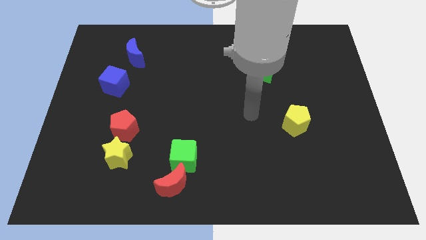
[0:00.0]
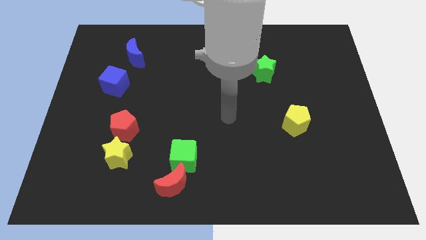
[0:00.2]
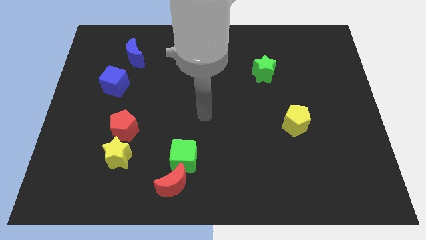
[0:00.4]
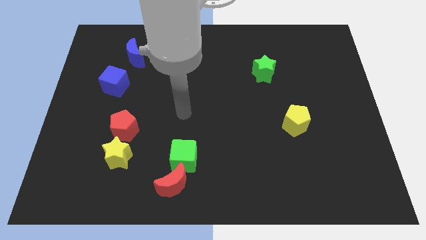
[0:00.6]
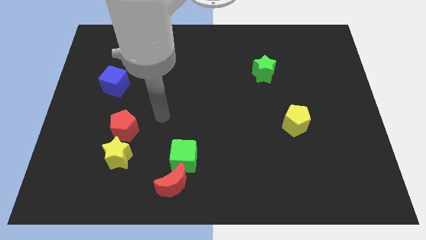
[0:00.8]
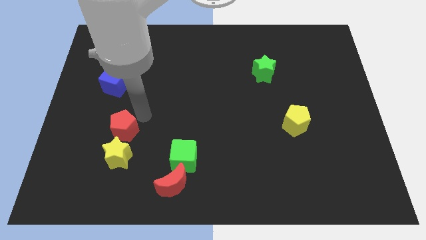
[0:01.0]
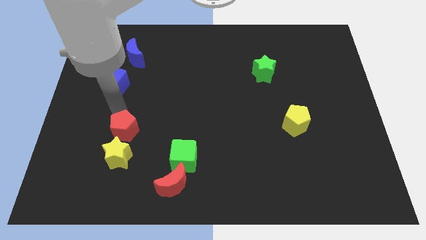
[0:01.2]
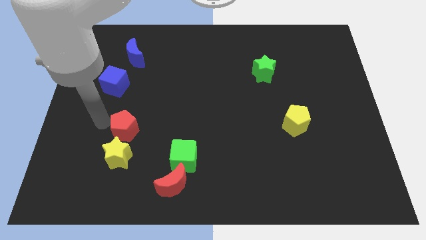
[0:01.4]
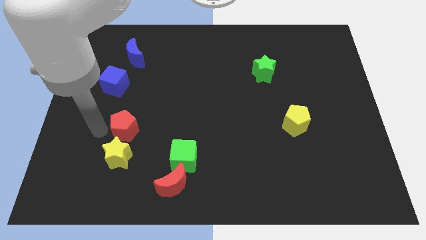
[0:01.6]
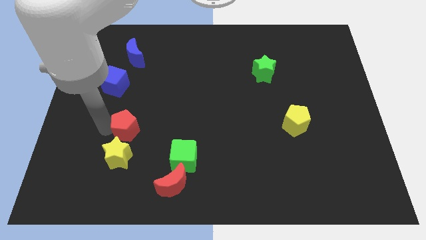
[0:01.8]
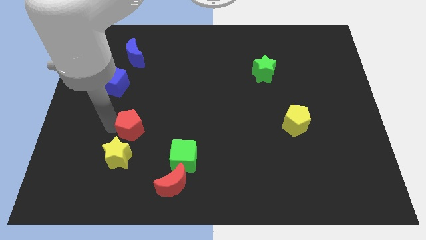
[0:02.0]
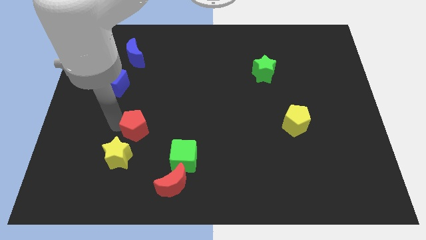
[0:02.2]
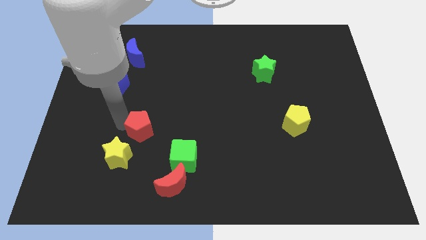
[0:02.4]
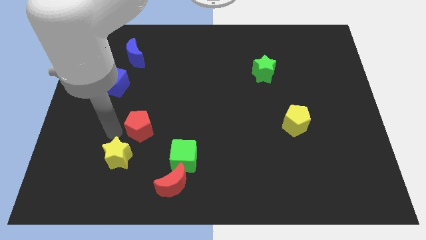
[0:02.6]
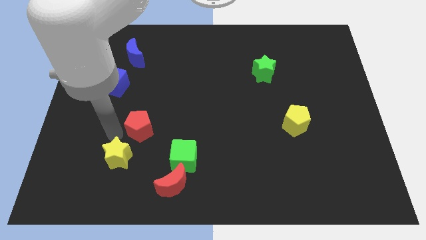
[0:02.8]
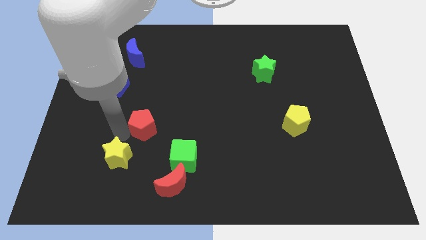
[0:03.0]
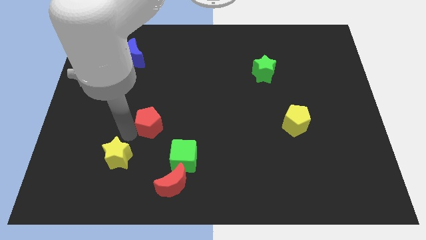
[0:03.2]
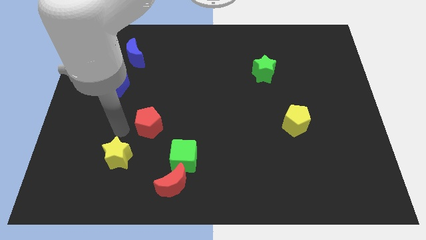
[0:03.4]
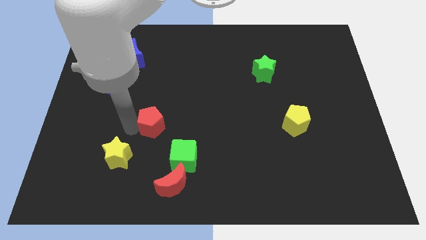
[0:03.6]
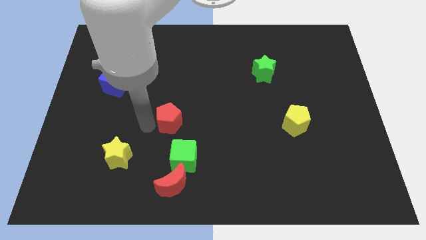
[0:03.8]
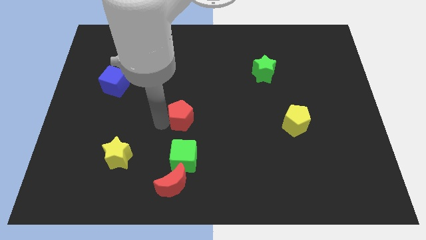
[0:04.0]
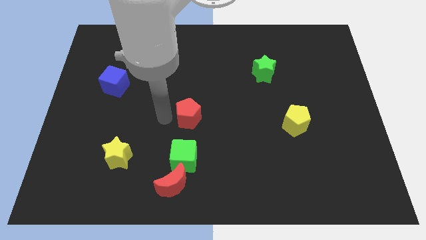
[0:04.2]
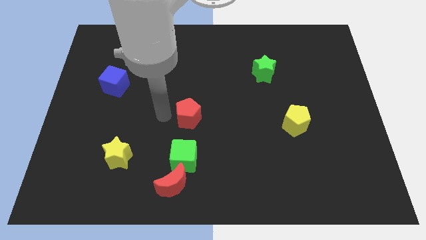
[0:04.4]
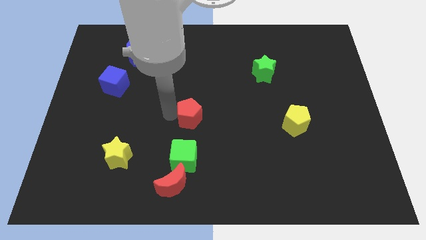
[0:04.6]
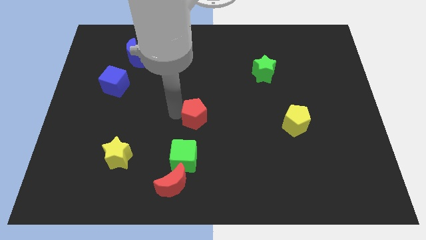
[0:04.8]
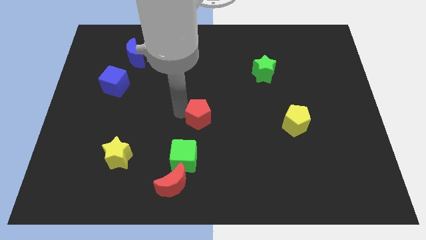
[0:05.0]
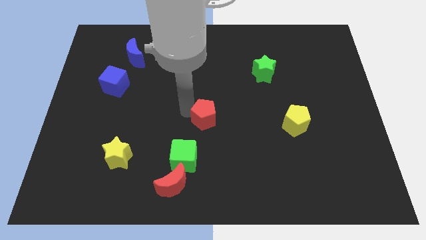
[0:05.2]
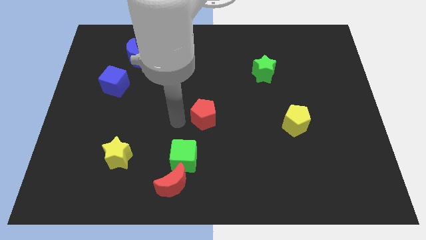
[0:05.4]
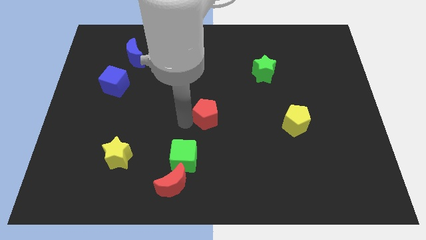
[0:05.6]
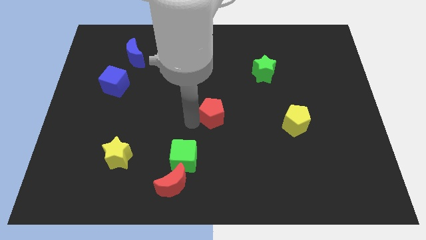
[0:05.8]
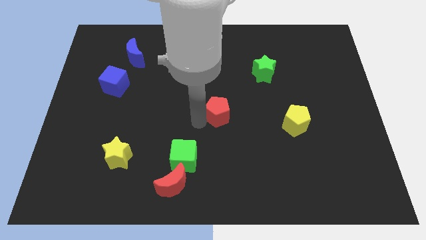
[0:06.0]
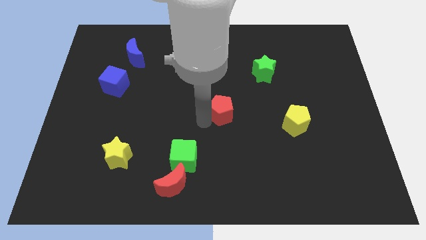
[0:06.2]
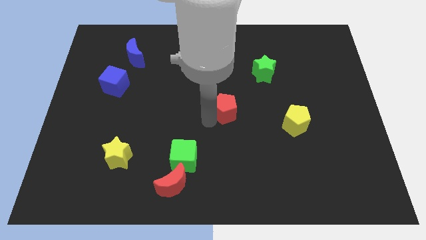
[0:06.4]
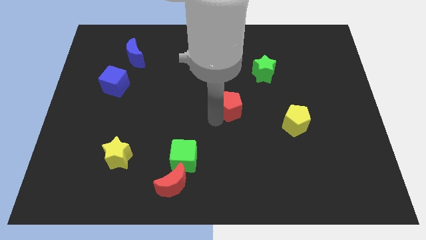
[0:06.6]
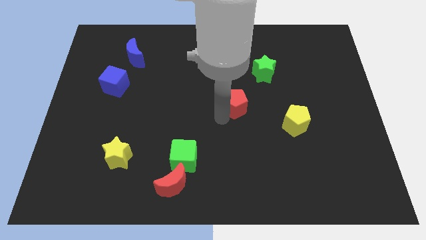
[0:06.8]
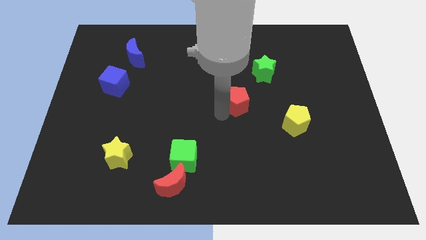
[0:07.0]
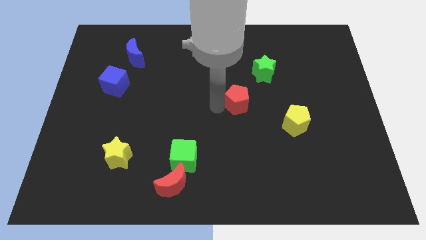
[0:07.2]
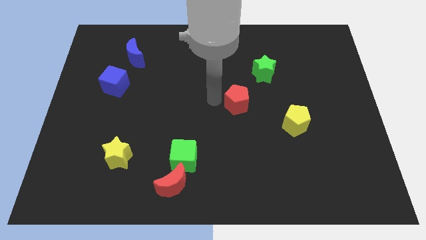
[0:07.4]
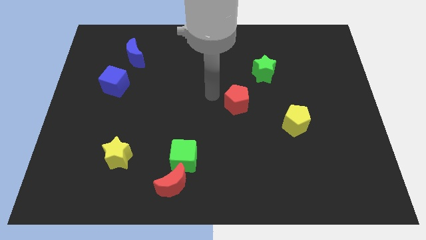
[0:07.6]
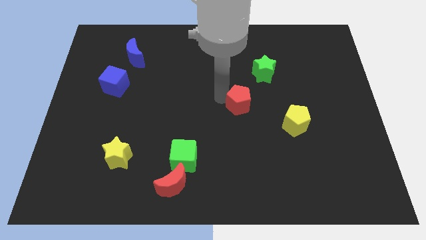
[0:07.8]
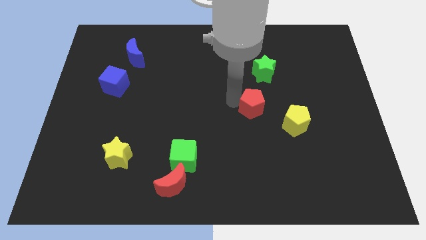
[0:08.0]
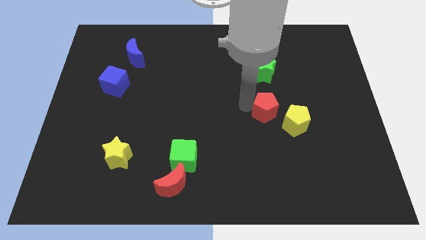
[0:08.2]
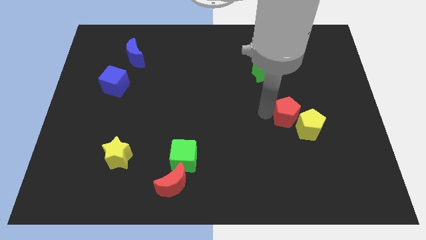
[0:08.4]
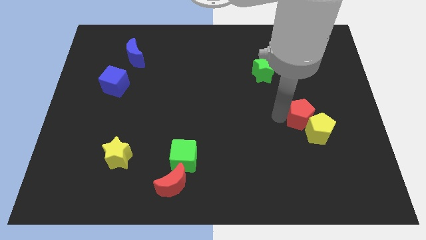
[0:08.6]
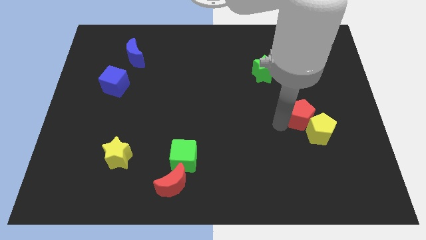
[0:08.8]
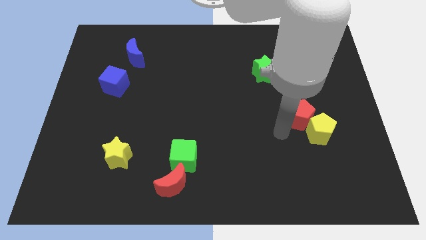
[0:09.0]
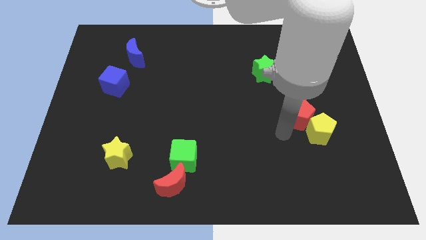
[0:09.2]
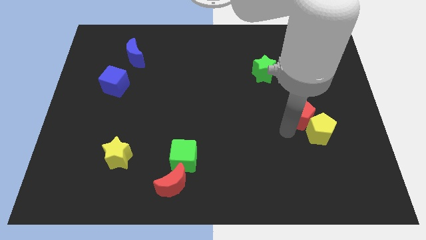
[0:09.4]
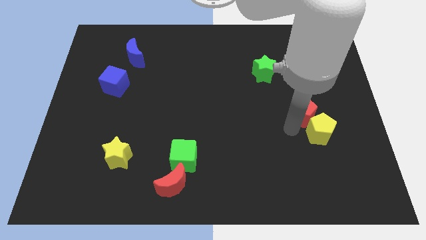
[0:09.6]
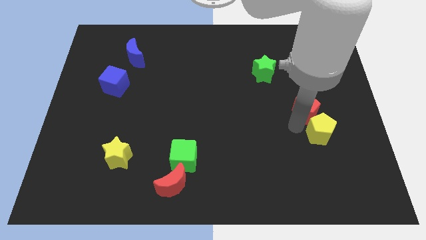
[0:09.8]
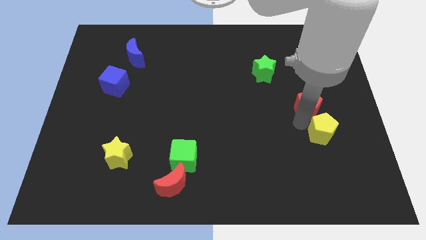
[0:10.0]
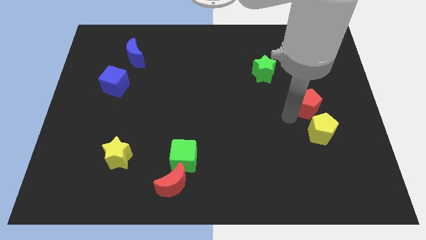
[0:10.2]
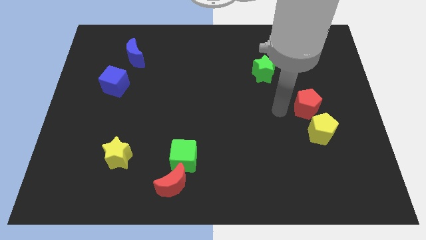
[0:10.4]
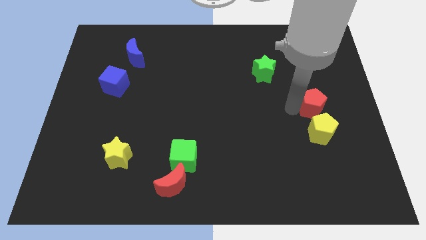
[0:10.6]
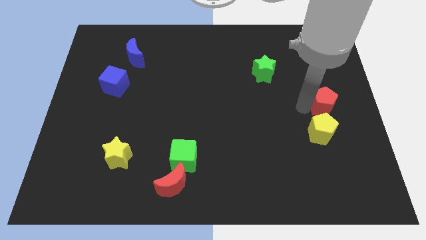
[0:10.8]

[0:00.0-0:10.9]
move the red pentagon to the center right

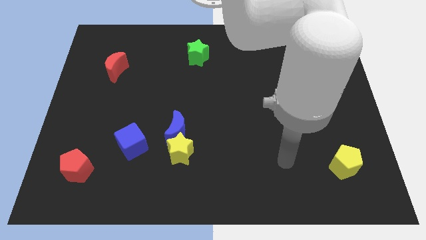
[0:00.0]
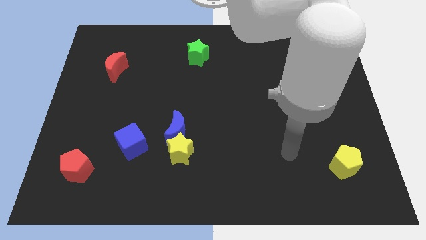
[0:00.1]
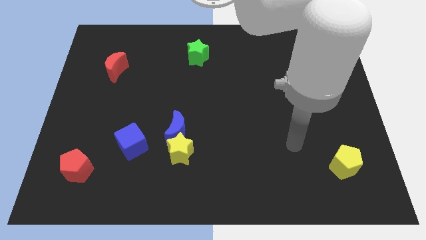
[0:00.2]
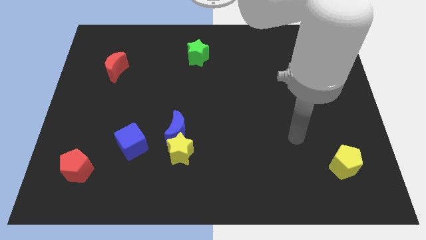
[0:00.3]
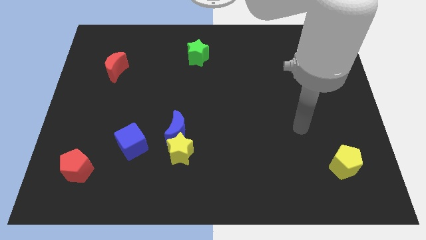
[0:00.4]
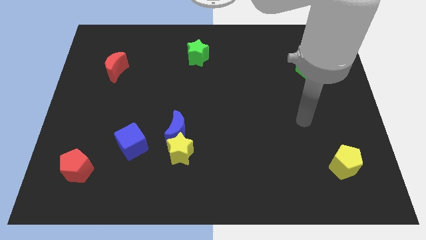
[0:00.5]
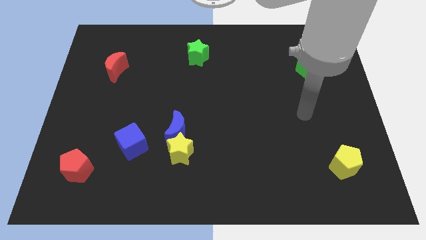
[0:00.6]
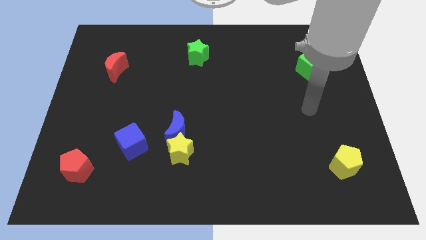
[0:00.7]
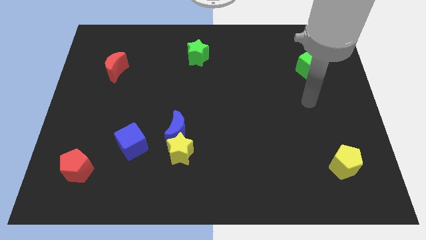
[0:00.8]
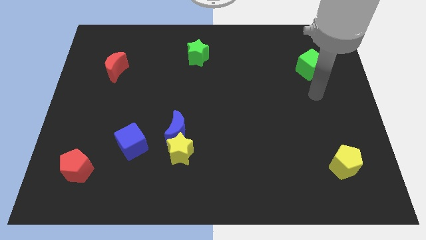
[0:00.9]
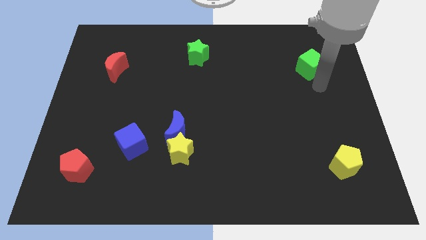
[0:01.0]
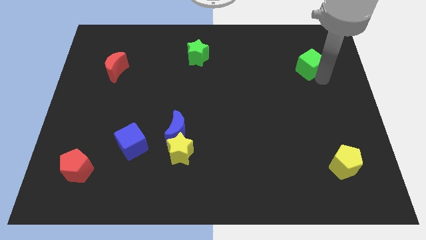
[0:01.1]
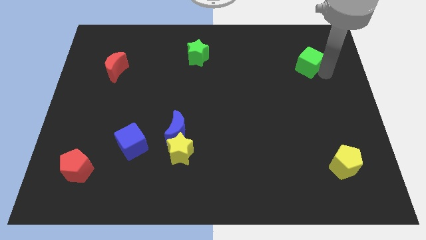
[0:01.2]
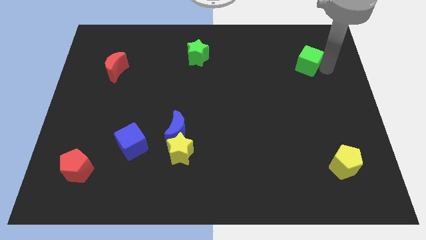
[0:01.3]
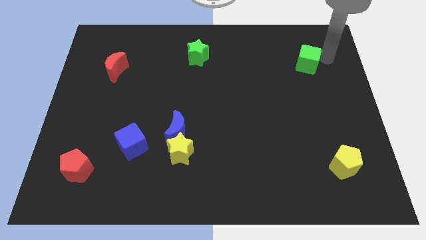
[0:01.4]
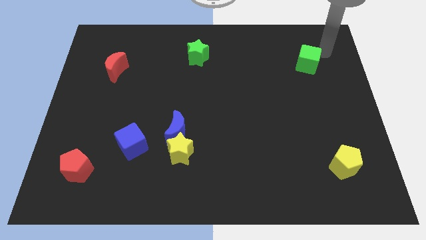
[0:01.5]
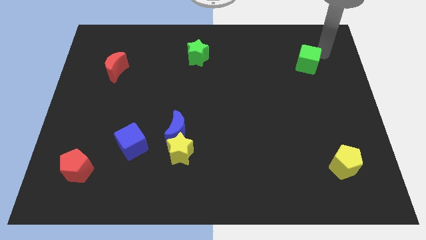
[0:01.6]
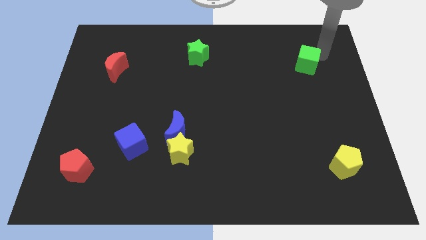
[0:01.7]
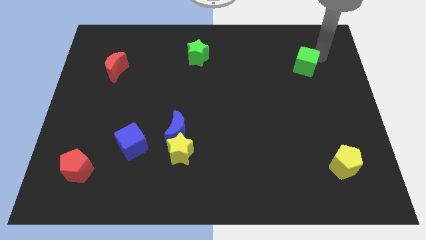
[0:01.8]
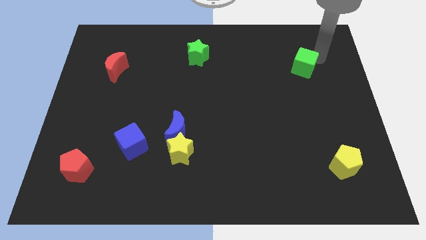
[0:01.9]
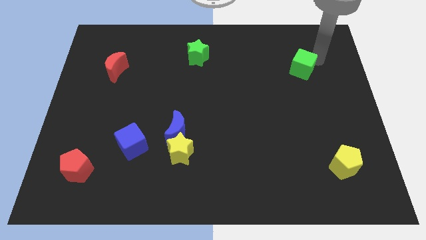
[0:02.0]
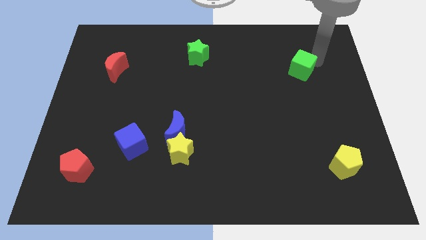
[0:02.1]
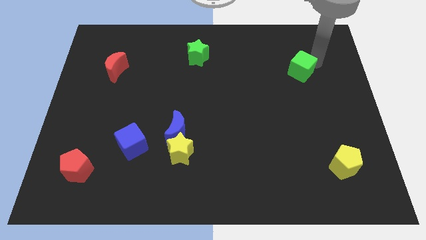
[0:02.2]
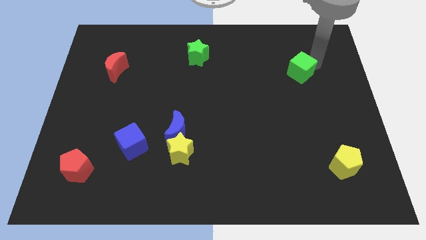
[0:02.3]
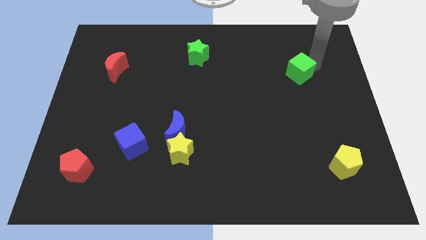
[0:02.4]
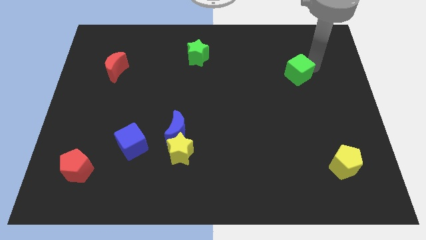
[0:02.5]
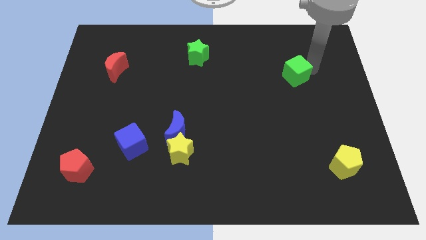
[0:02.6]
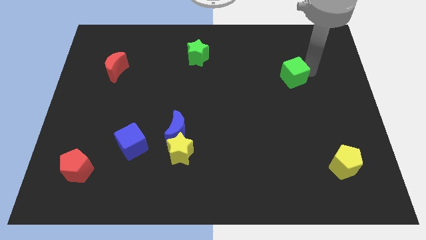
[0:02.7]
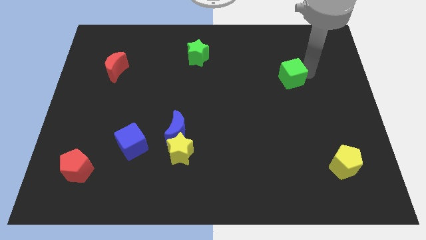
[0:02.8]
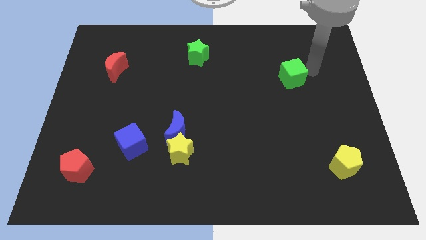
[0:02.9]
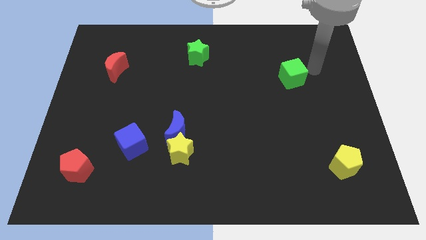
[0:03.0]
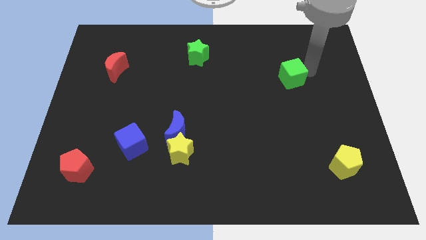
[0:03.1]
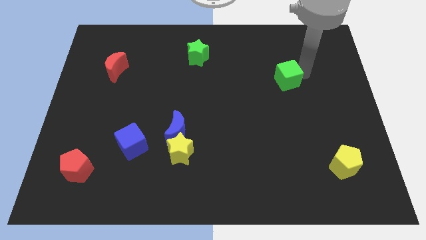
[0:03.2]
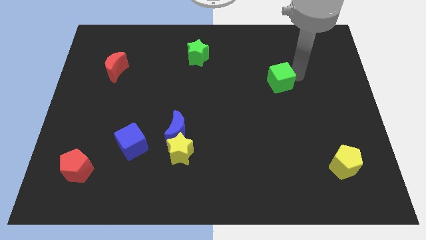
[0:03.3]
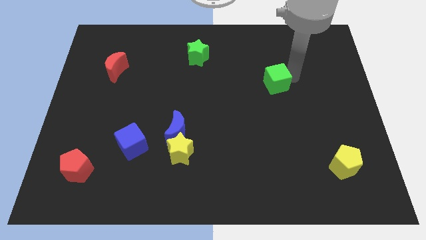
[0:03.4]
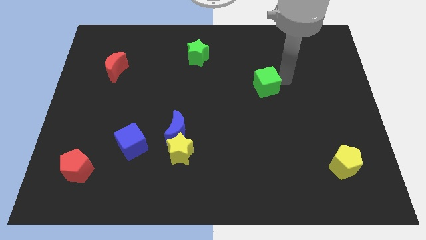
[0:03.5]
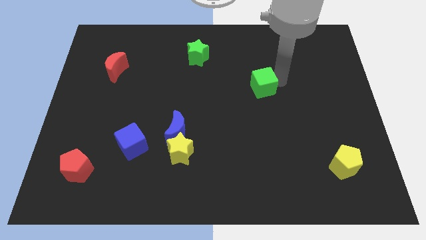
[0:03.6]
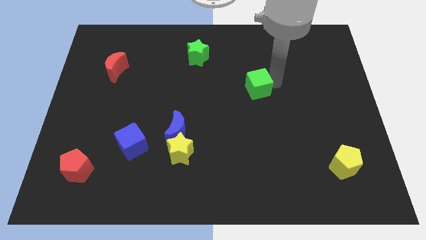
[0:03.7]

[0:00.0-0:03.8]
put the green cube to the center of the board
